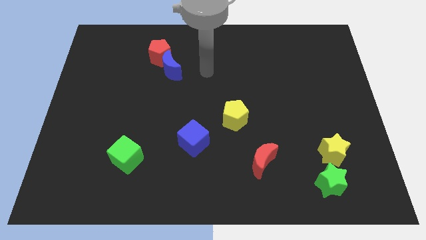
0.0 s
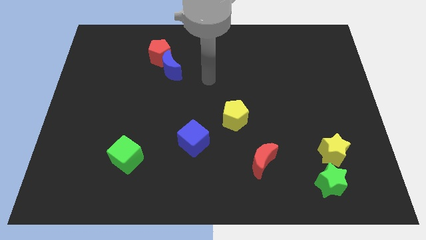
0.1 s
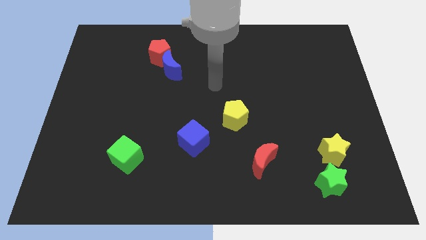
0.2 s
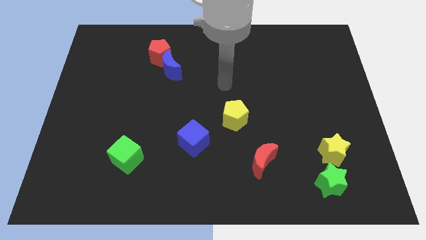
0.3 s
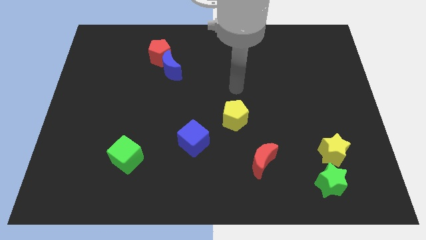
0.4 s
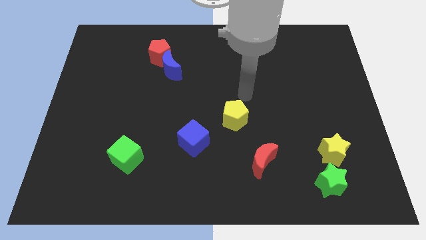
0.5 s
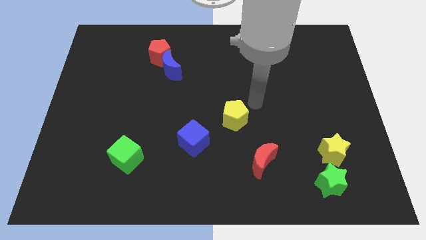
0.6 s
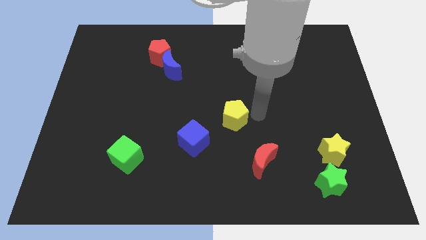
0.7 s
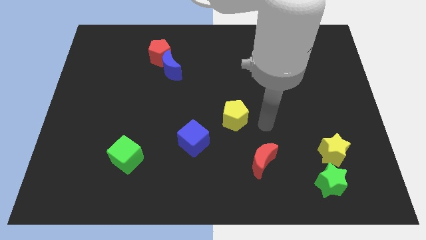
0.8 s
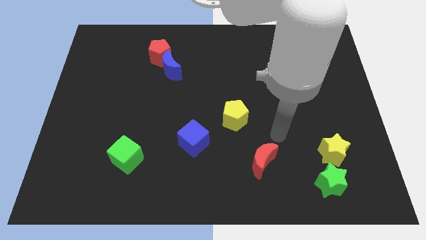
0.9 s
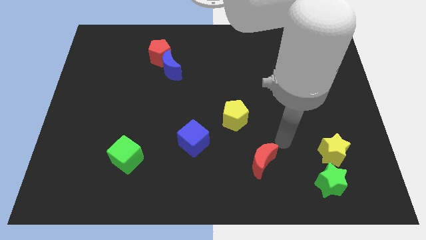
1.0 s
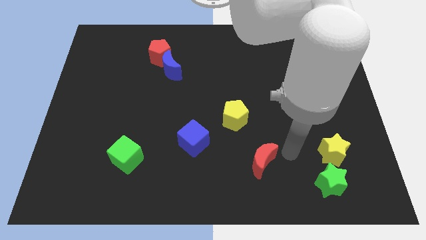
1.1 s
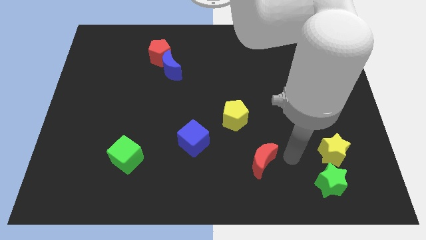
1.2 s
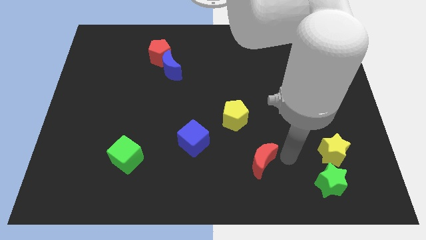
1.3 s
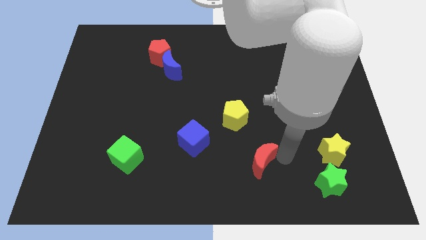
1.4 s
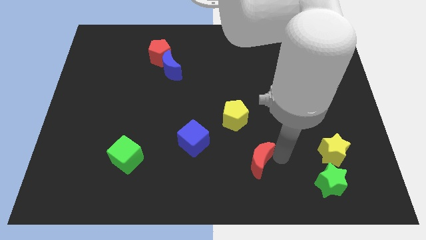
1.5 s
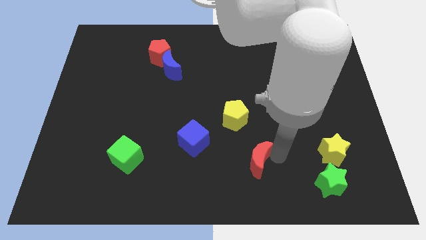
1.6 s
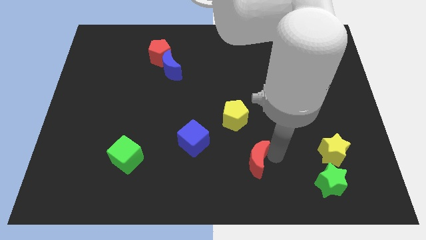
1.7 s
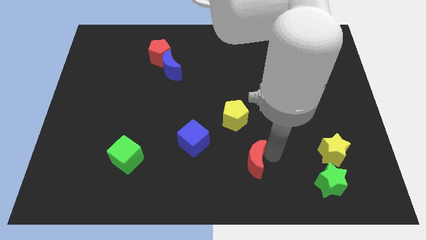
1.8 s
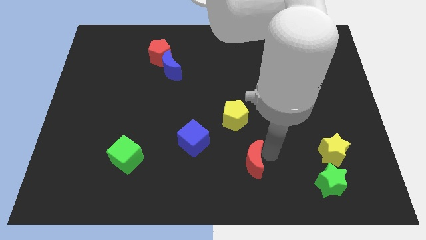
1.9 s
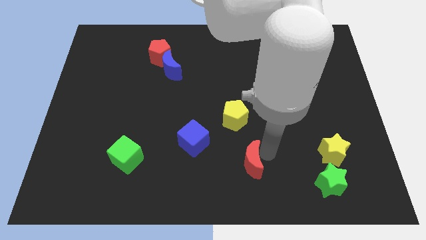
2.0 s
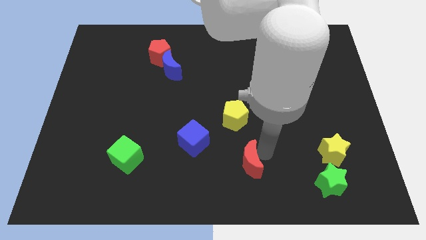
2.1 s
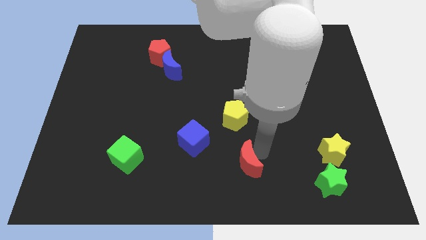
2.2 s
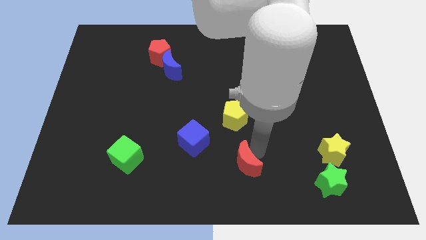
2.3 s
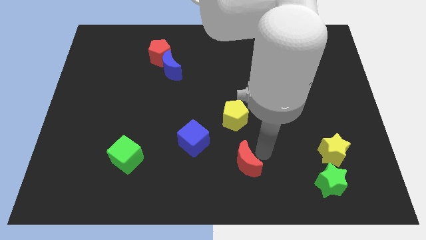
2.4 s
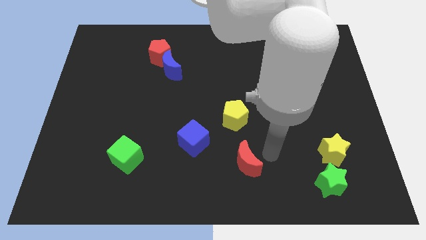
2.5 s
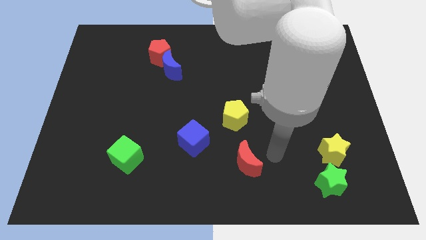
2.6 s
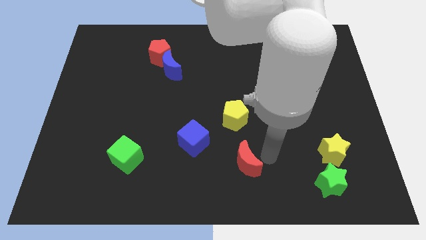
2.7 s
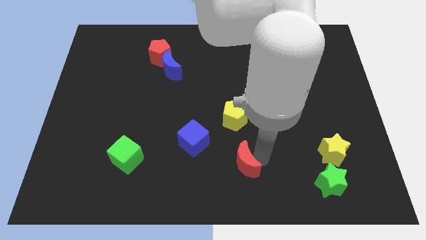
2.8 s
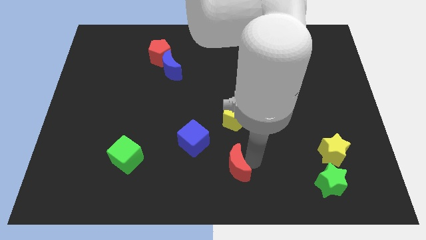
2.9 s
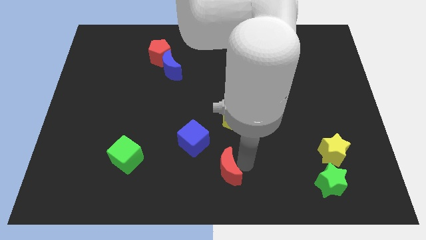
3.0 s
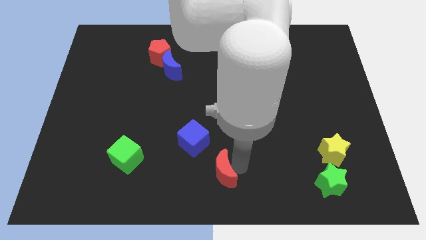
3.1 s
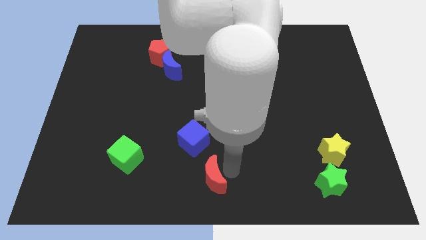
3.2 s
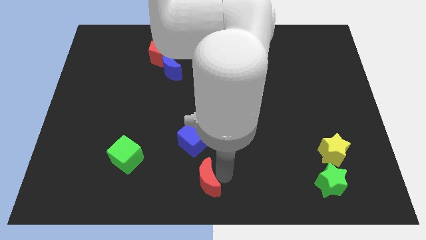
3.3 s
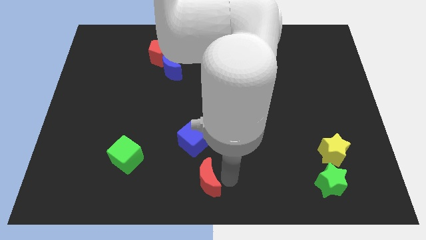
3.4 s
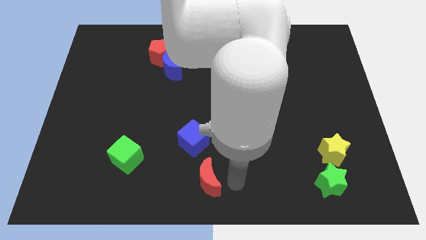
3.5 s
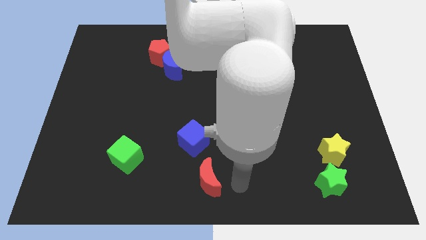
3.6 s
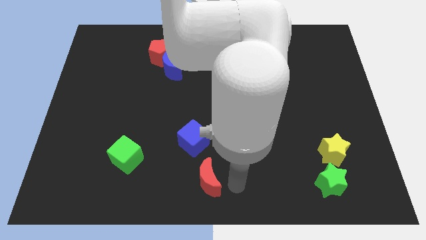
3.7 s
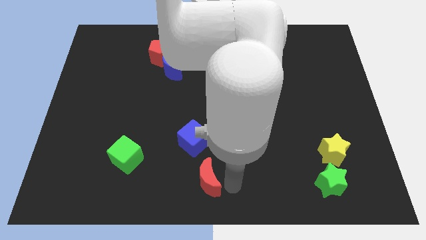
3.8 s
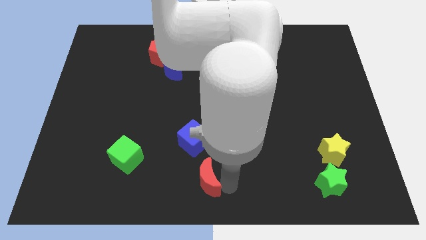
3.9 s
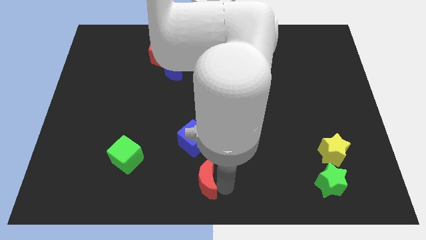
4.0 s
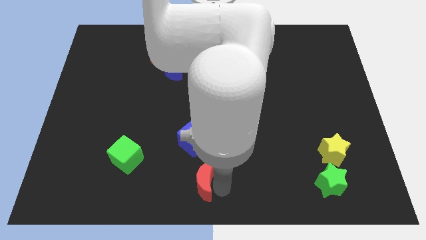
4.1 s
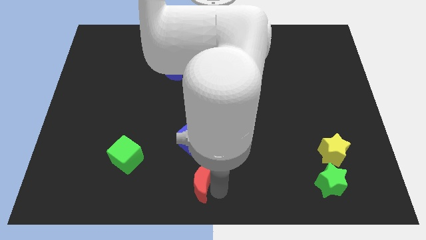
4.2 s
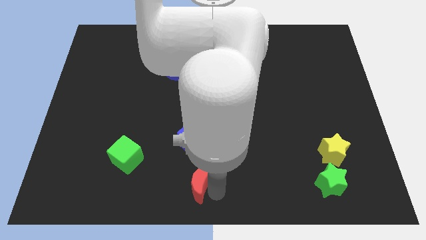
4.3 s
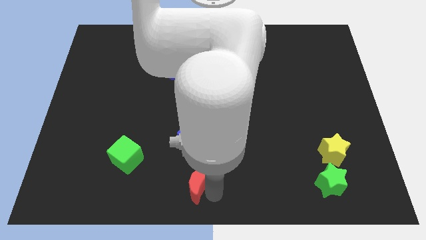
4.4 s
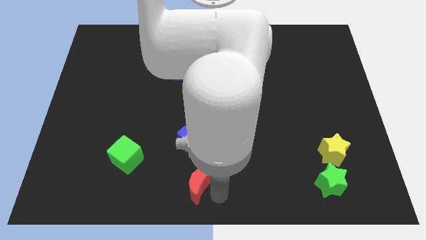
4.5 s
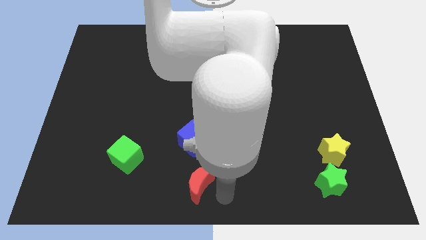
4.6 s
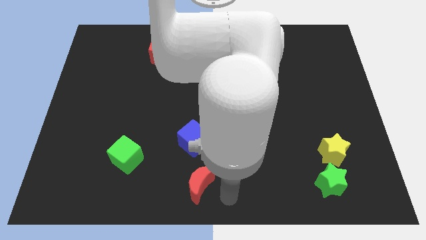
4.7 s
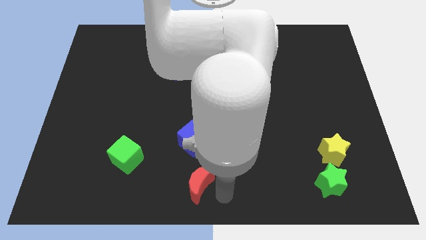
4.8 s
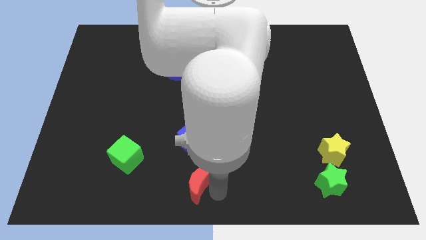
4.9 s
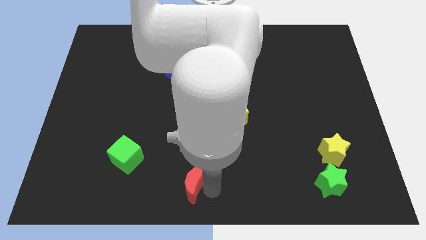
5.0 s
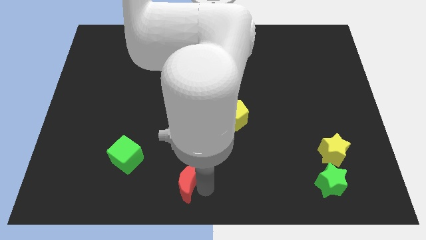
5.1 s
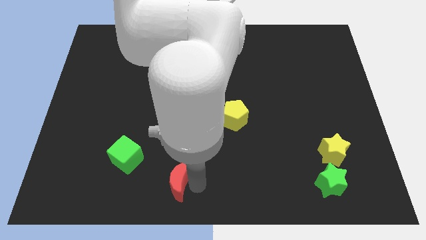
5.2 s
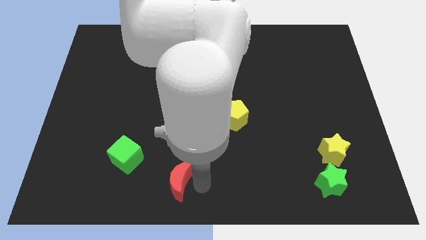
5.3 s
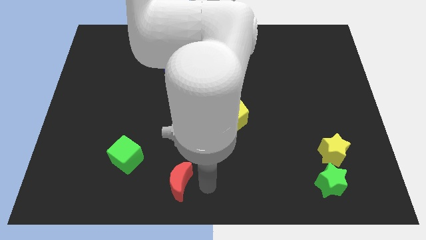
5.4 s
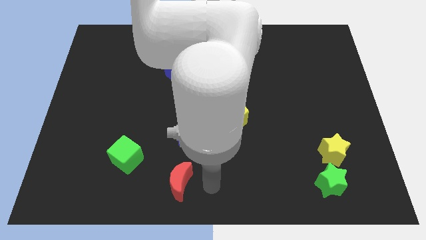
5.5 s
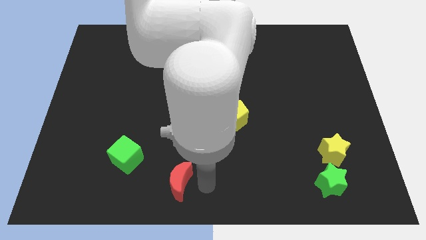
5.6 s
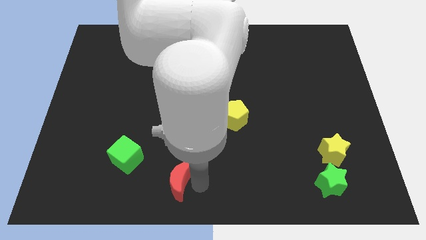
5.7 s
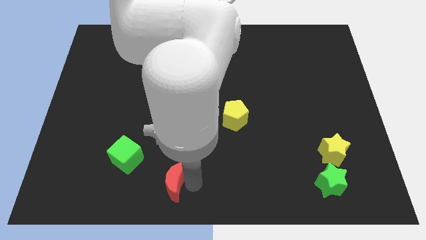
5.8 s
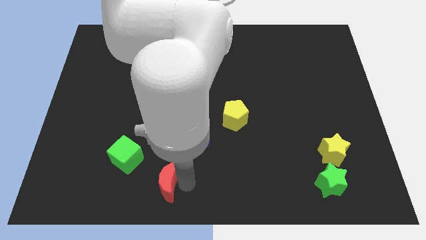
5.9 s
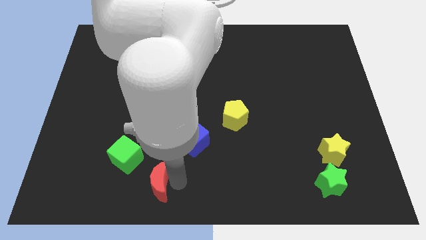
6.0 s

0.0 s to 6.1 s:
push the red moon left

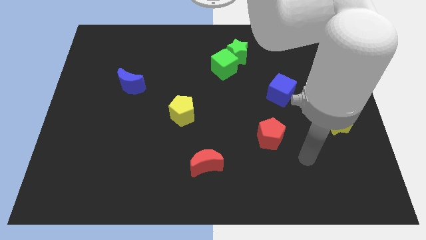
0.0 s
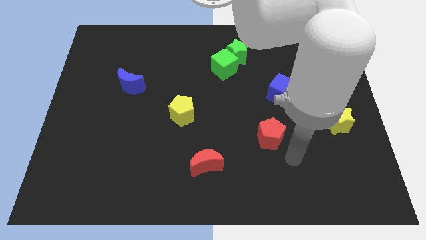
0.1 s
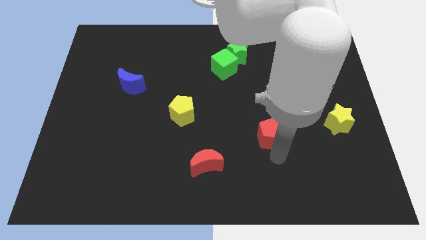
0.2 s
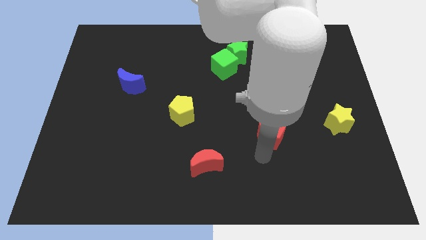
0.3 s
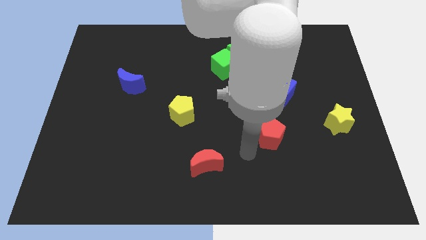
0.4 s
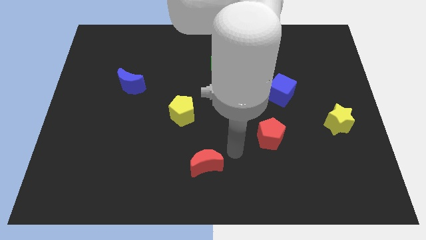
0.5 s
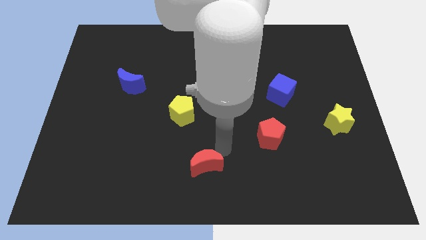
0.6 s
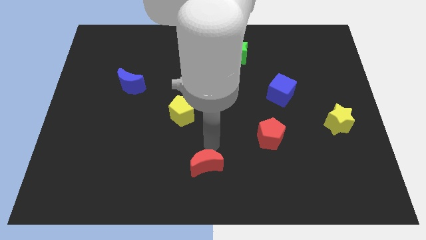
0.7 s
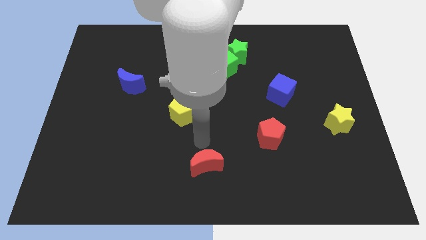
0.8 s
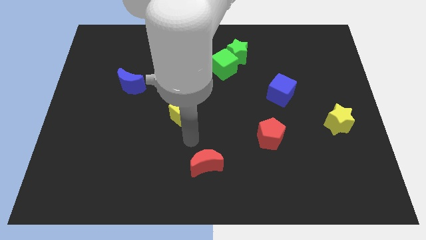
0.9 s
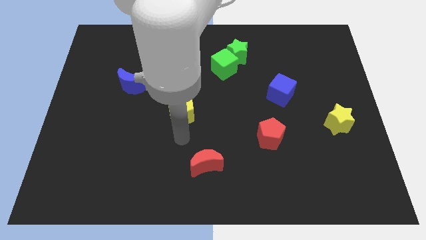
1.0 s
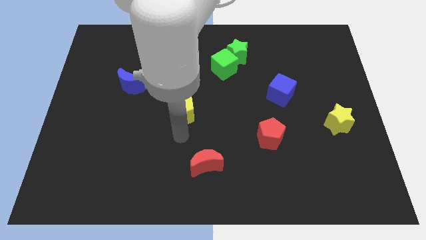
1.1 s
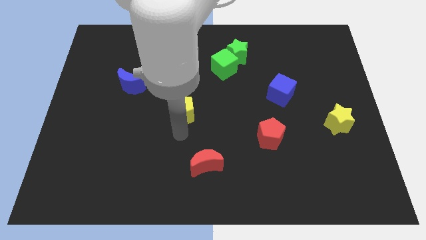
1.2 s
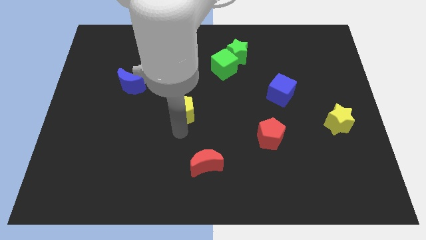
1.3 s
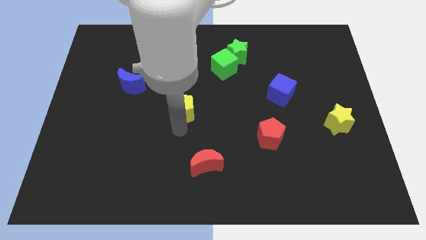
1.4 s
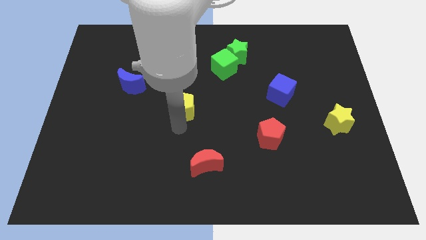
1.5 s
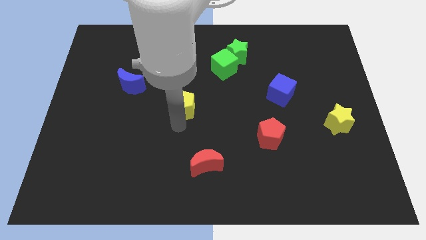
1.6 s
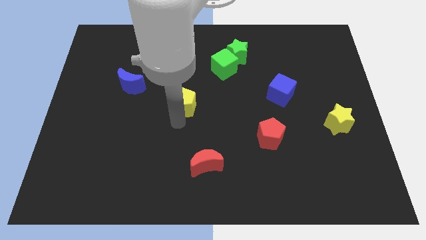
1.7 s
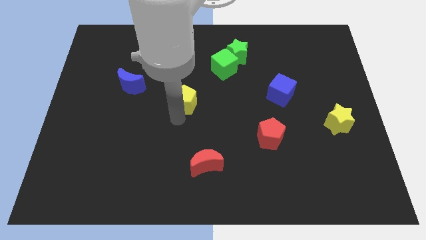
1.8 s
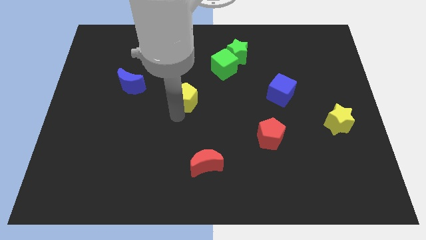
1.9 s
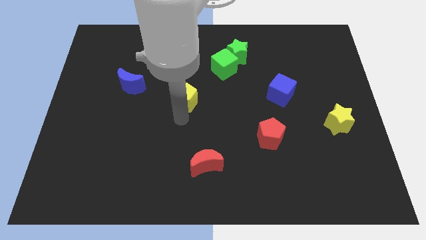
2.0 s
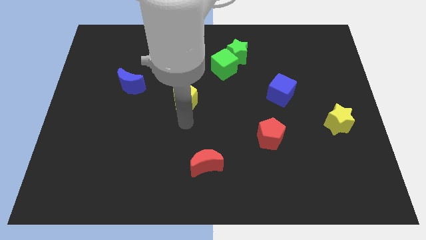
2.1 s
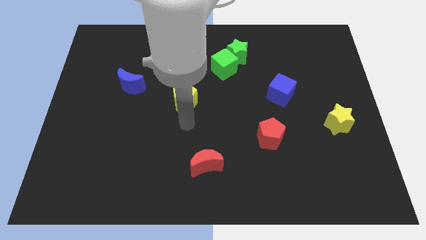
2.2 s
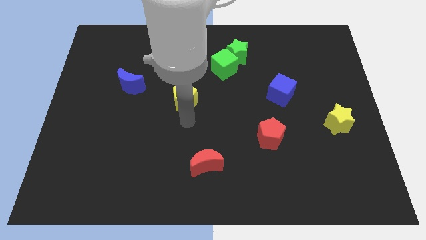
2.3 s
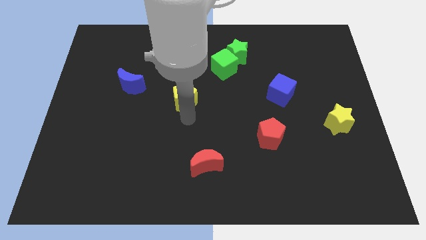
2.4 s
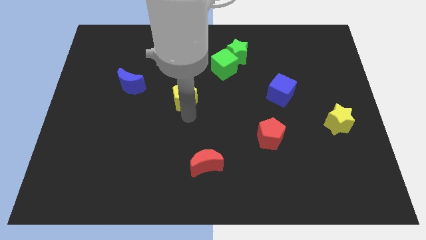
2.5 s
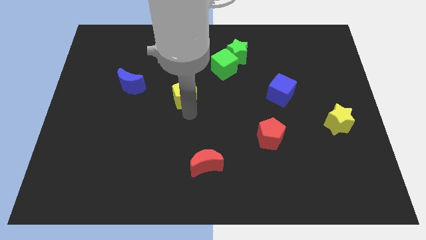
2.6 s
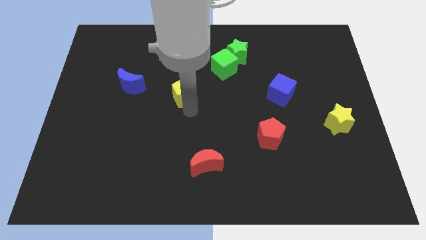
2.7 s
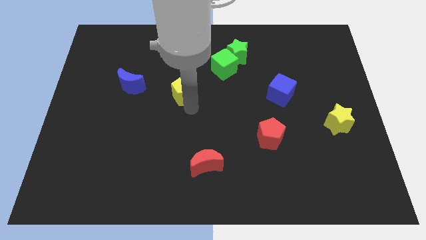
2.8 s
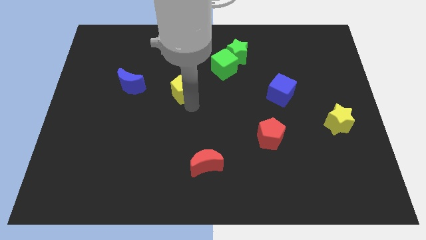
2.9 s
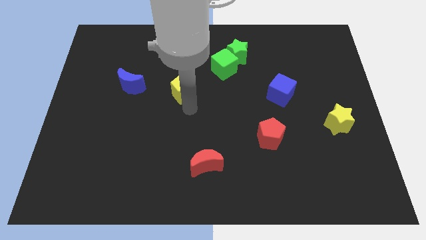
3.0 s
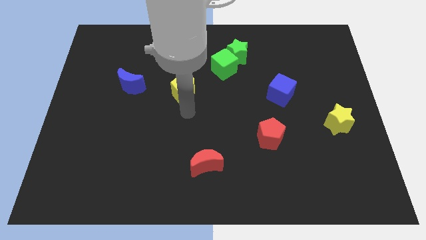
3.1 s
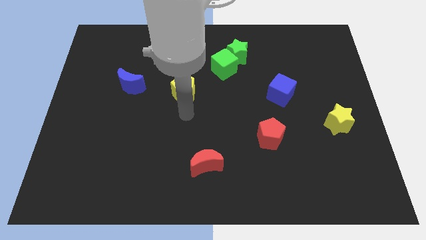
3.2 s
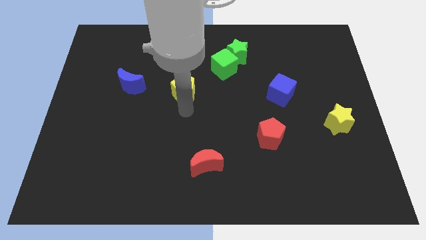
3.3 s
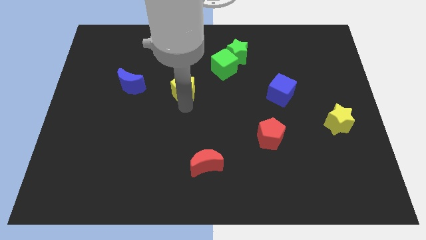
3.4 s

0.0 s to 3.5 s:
slide the yellow pentagon up somewhat
